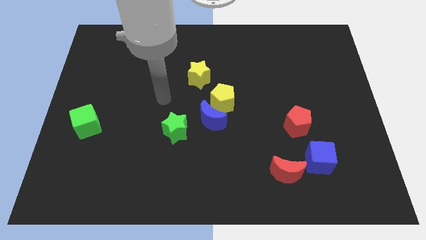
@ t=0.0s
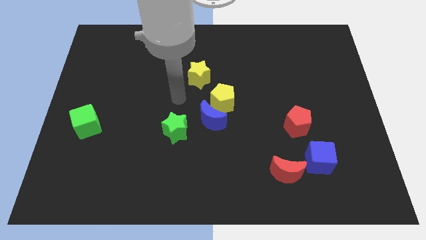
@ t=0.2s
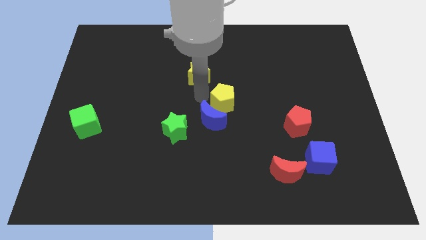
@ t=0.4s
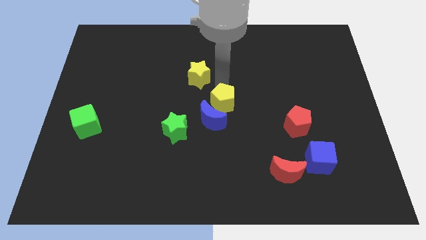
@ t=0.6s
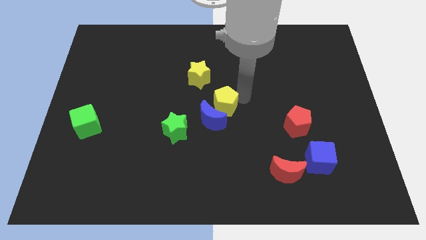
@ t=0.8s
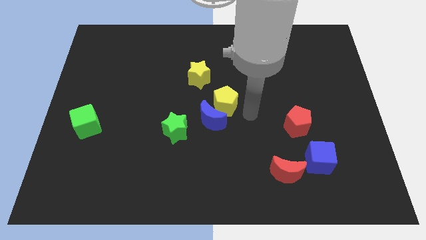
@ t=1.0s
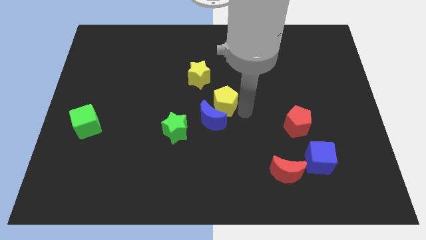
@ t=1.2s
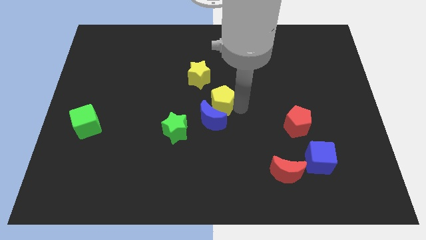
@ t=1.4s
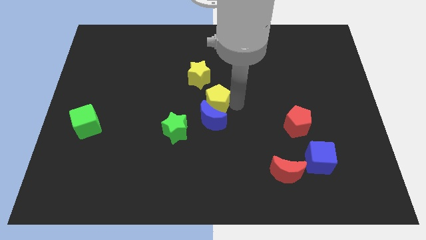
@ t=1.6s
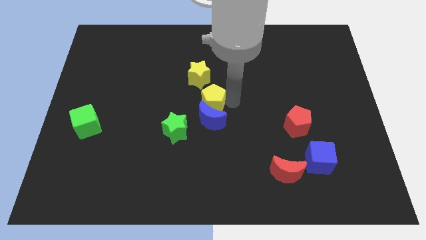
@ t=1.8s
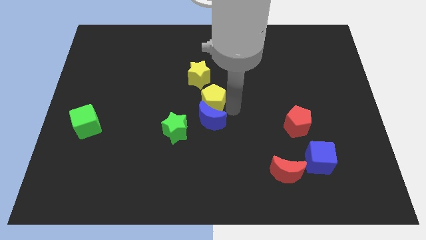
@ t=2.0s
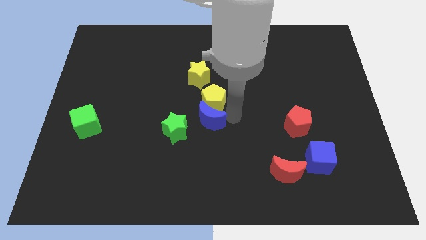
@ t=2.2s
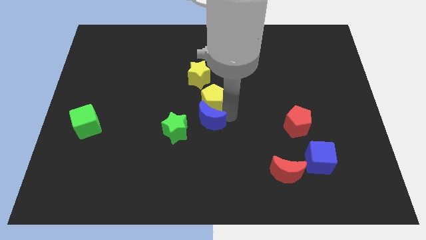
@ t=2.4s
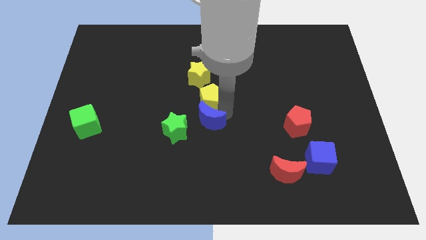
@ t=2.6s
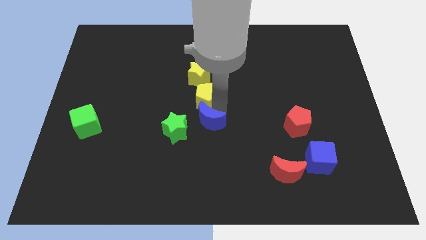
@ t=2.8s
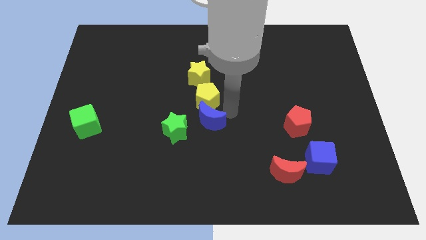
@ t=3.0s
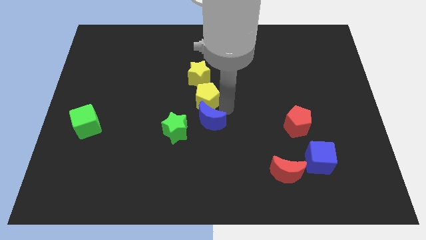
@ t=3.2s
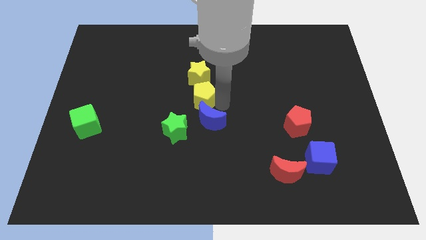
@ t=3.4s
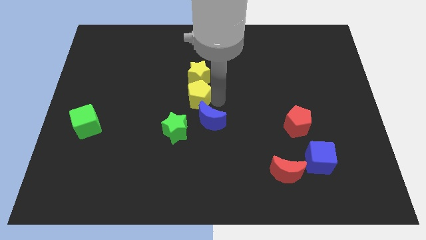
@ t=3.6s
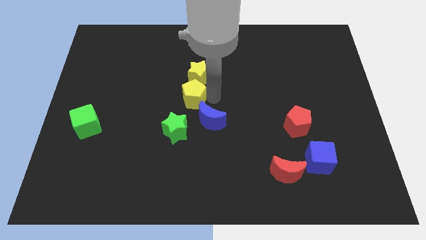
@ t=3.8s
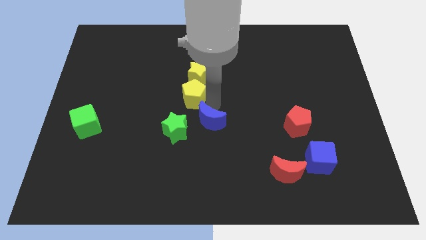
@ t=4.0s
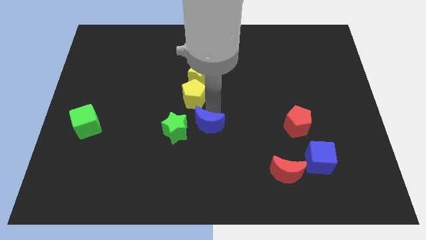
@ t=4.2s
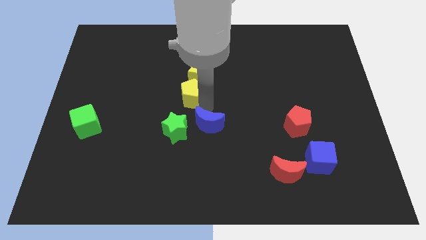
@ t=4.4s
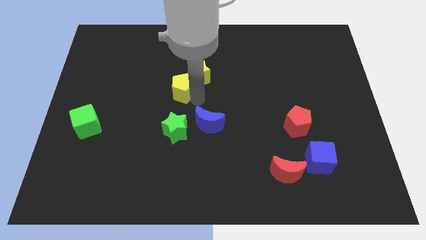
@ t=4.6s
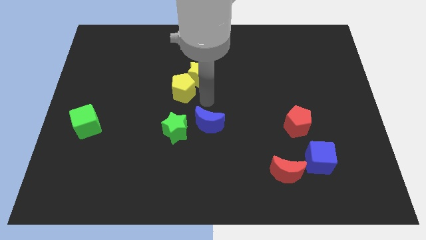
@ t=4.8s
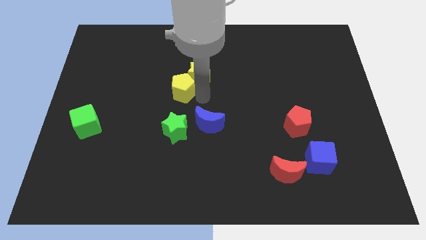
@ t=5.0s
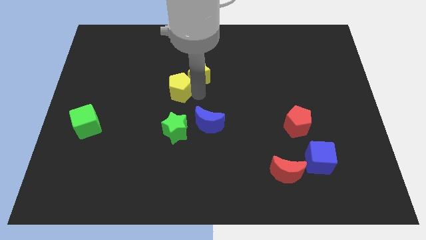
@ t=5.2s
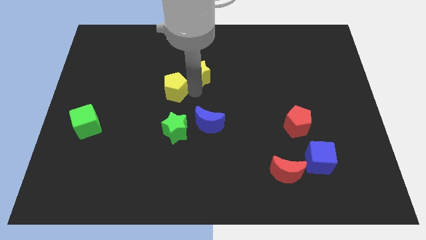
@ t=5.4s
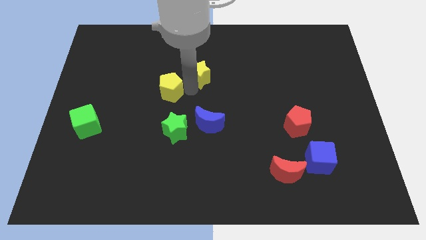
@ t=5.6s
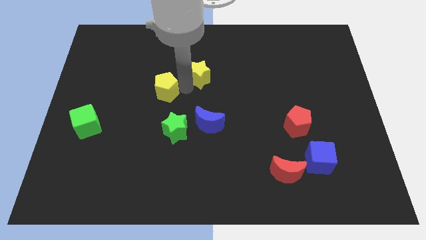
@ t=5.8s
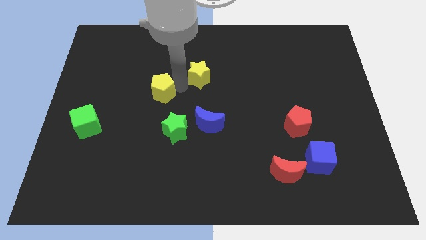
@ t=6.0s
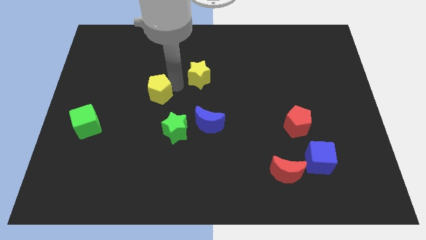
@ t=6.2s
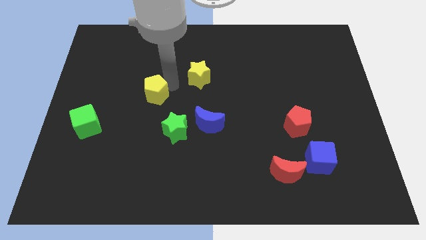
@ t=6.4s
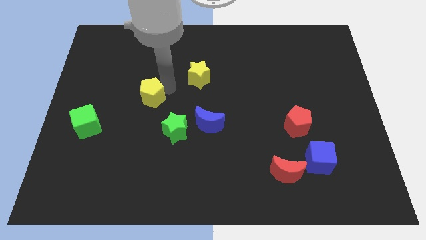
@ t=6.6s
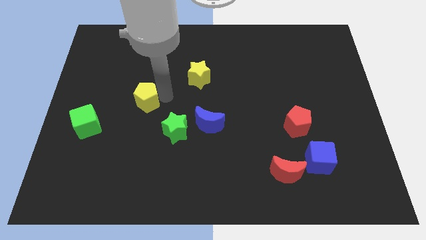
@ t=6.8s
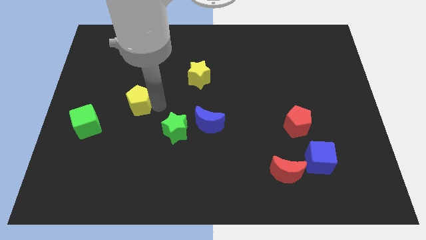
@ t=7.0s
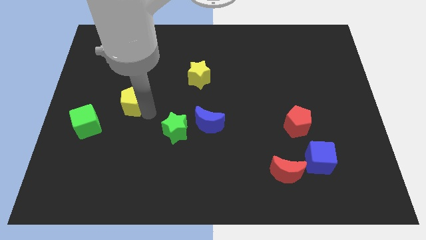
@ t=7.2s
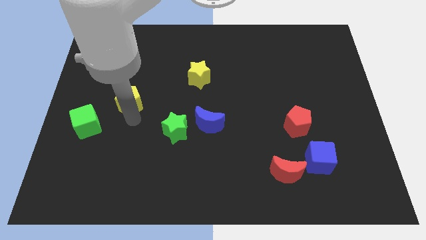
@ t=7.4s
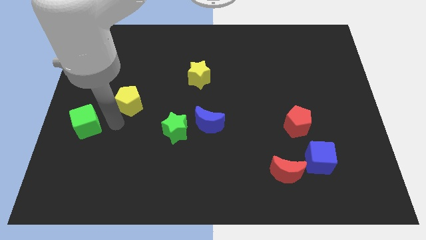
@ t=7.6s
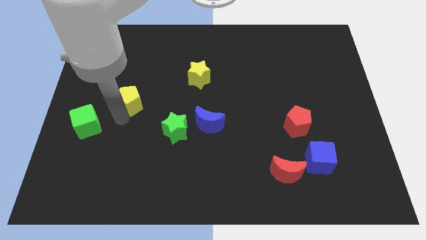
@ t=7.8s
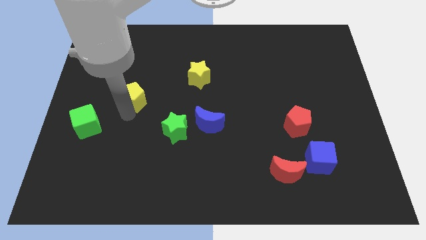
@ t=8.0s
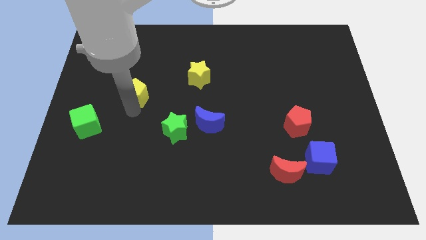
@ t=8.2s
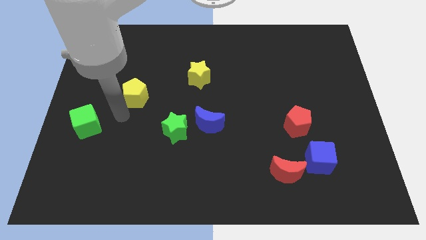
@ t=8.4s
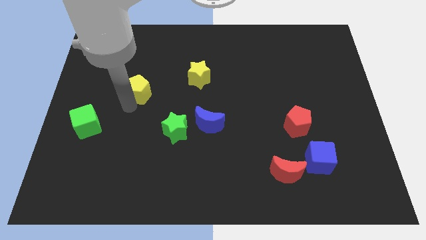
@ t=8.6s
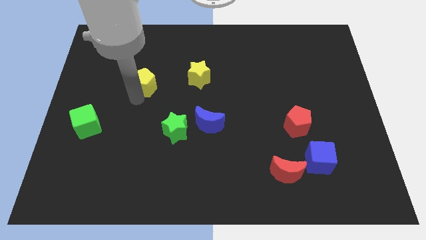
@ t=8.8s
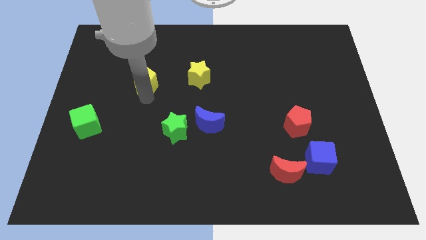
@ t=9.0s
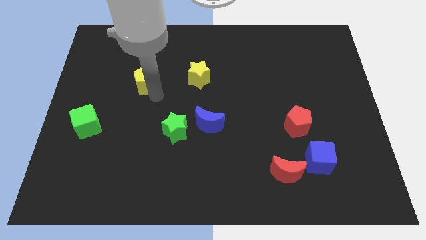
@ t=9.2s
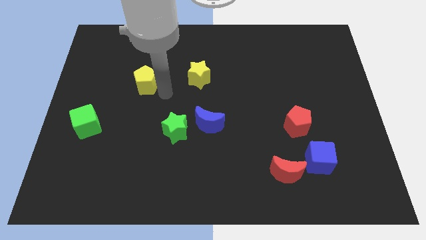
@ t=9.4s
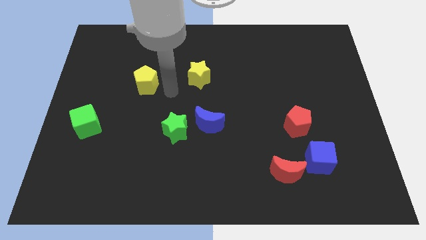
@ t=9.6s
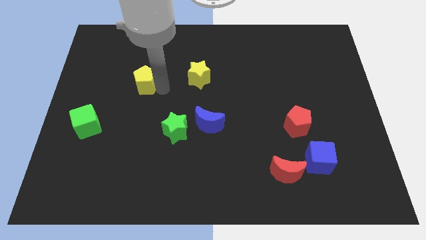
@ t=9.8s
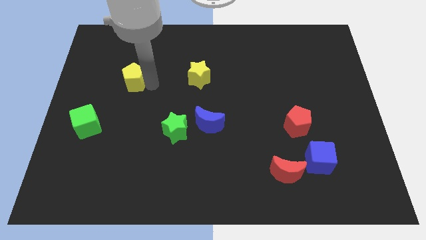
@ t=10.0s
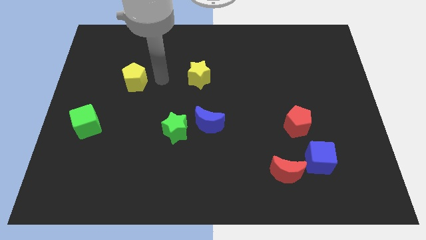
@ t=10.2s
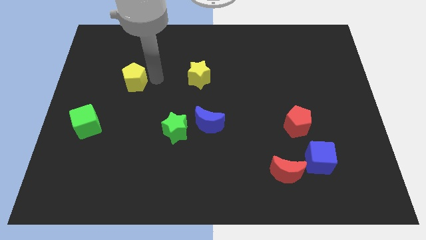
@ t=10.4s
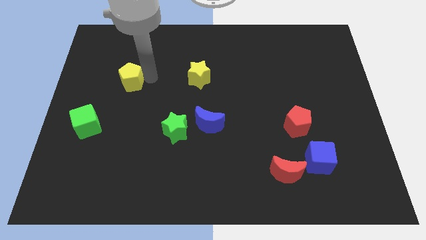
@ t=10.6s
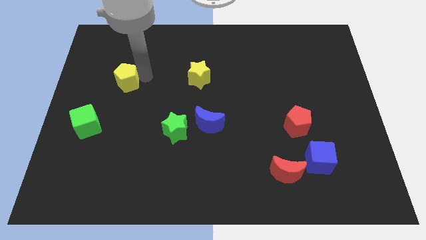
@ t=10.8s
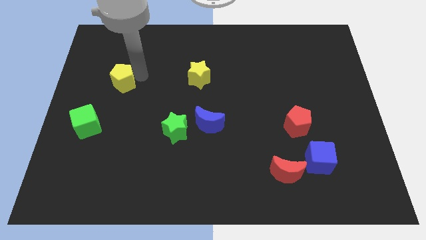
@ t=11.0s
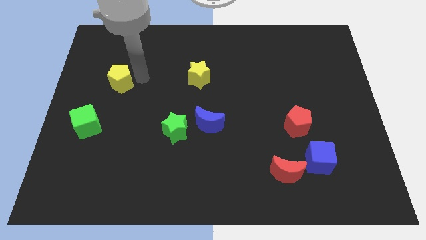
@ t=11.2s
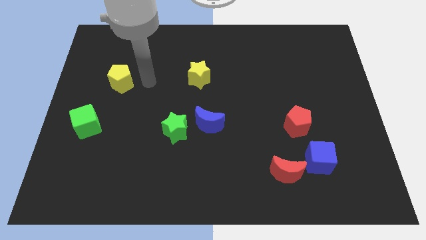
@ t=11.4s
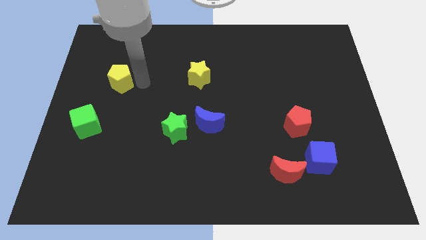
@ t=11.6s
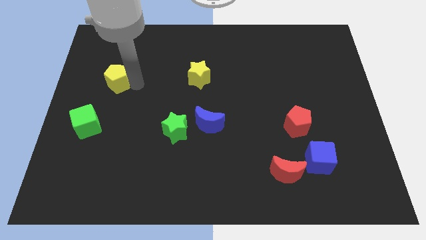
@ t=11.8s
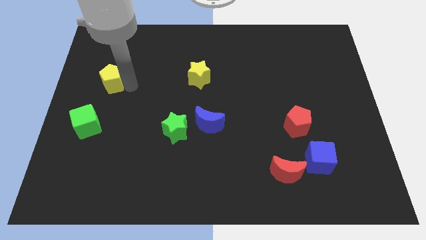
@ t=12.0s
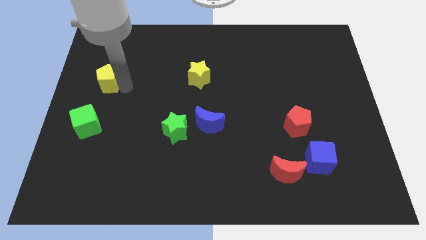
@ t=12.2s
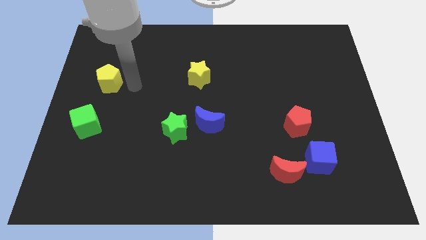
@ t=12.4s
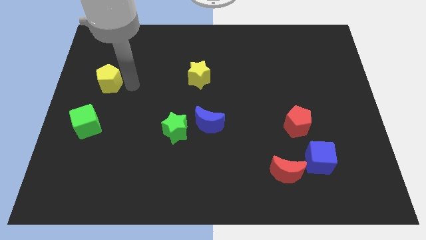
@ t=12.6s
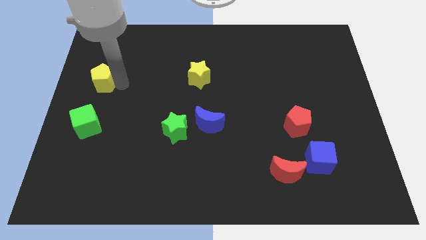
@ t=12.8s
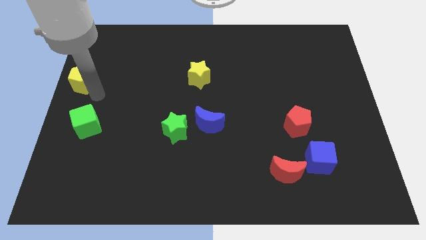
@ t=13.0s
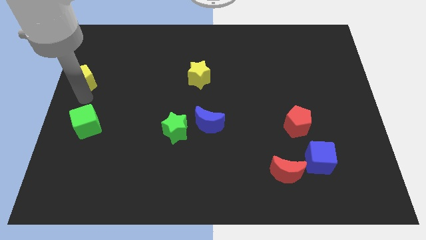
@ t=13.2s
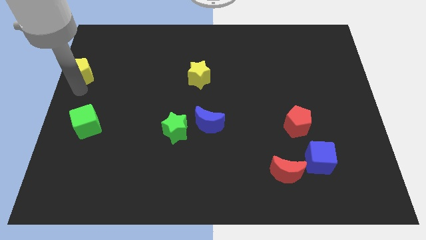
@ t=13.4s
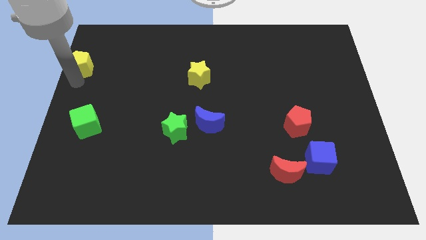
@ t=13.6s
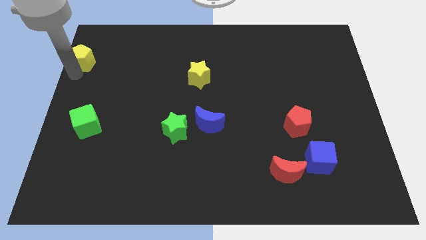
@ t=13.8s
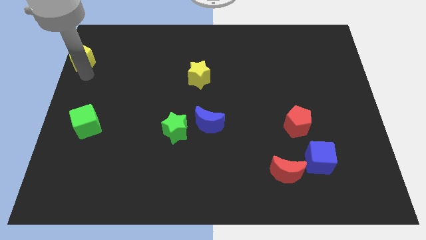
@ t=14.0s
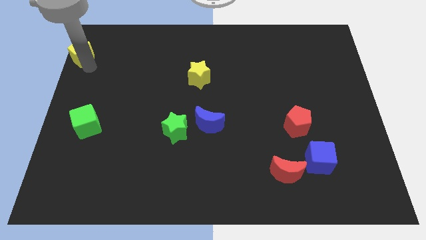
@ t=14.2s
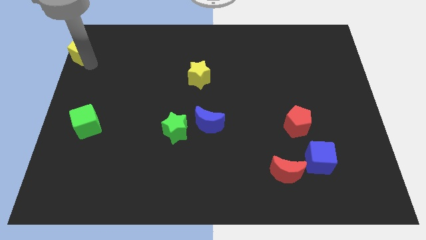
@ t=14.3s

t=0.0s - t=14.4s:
slide the yellow pentagon to the top left corner
